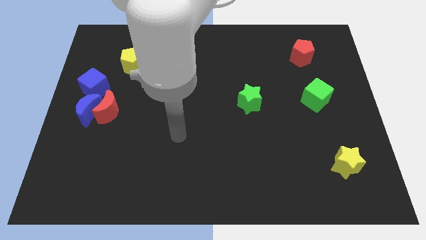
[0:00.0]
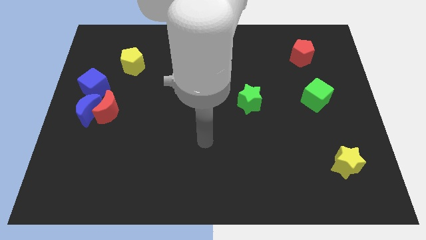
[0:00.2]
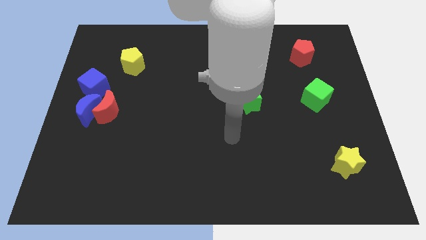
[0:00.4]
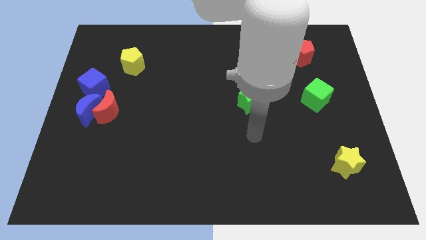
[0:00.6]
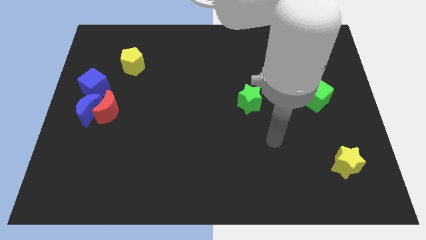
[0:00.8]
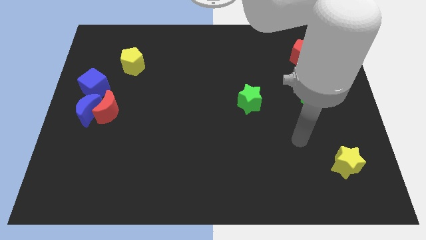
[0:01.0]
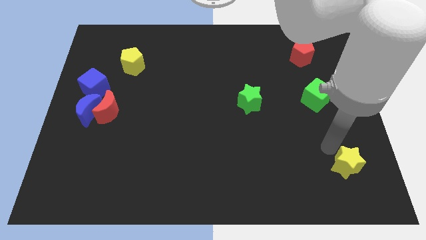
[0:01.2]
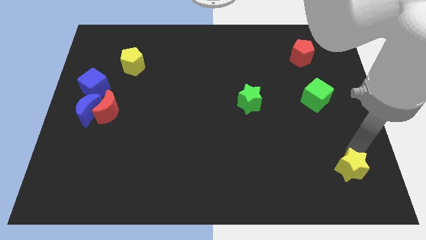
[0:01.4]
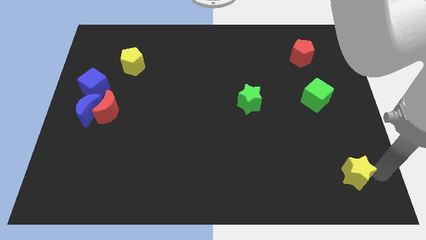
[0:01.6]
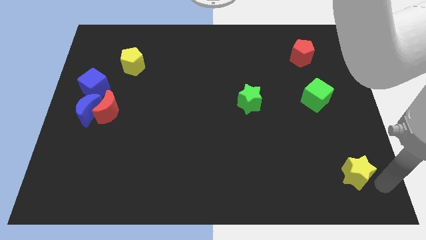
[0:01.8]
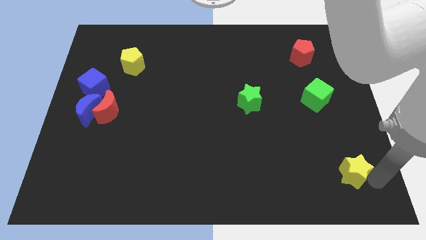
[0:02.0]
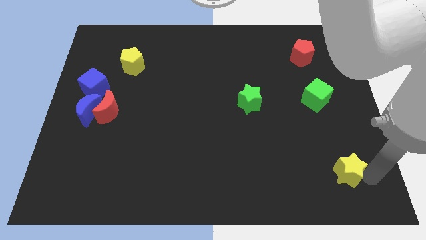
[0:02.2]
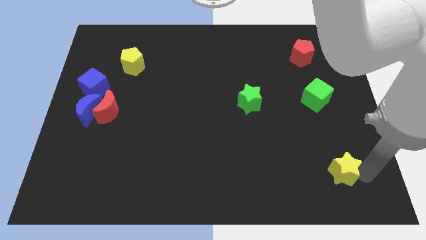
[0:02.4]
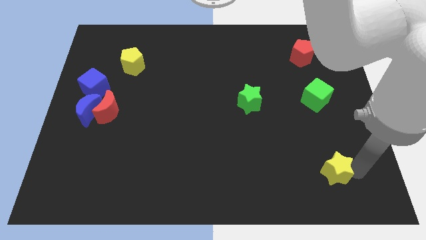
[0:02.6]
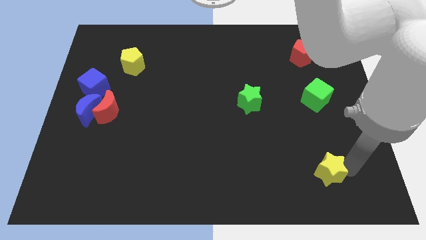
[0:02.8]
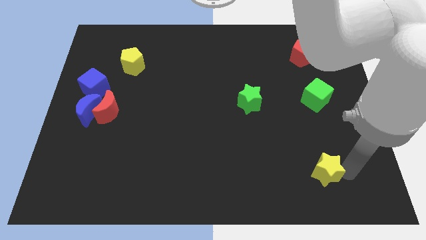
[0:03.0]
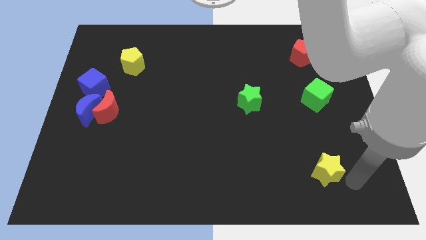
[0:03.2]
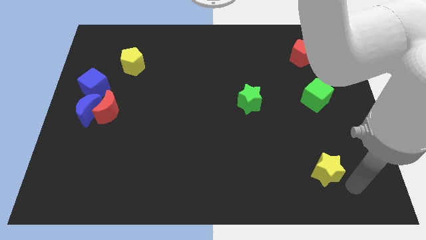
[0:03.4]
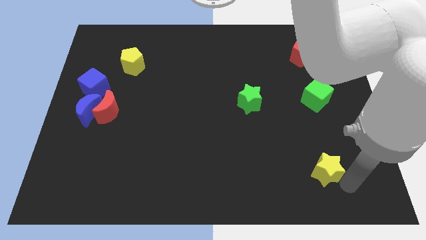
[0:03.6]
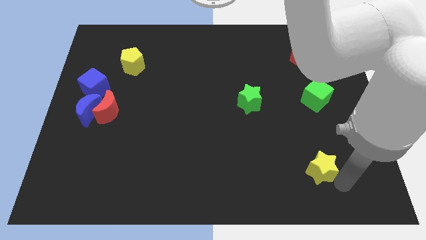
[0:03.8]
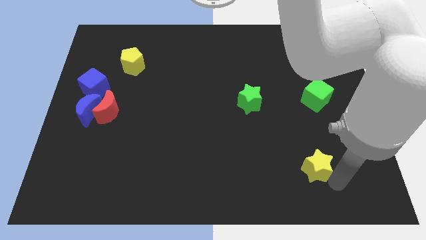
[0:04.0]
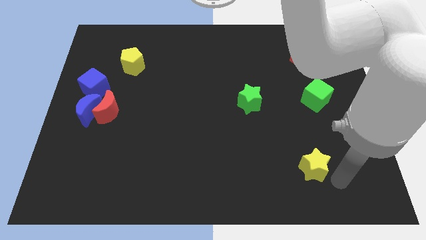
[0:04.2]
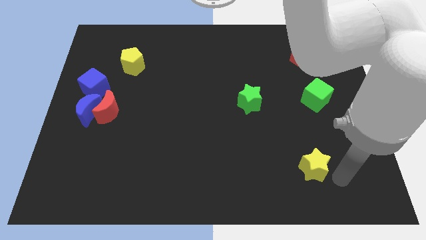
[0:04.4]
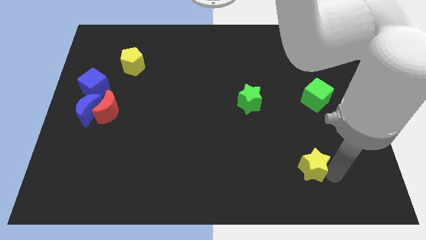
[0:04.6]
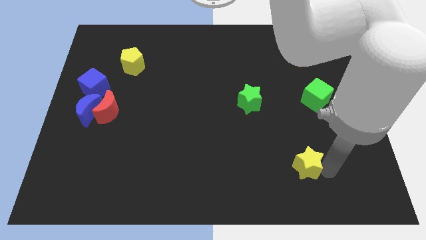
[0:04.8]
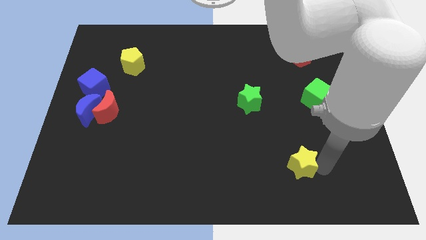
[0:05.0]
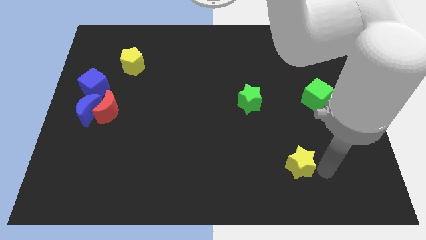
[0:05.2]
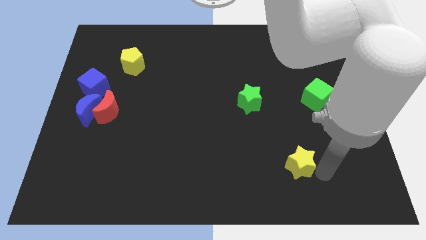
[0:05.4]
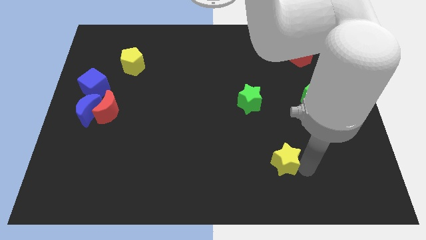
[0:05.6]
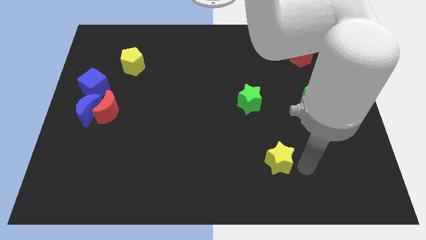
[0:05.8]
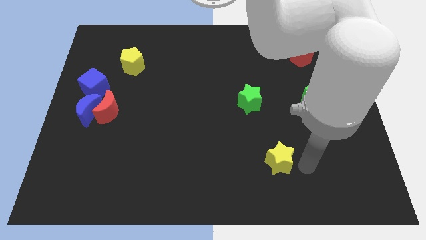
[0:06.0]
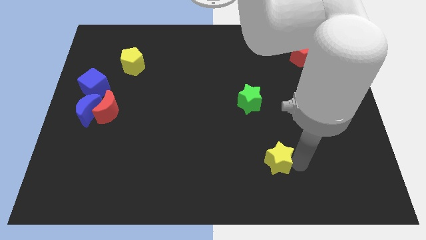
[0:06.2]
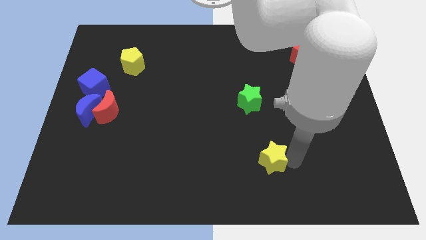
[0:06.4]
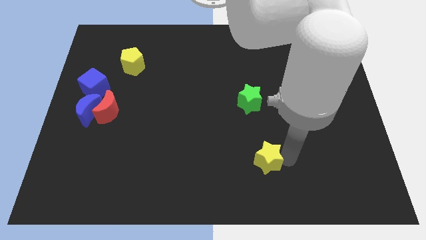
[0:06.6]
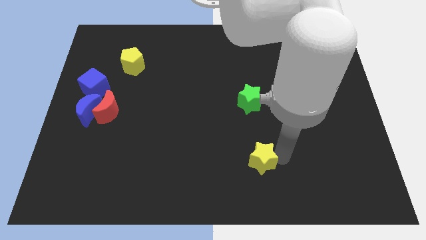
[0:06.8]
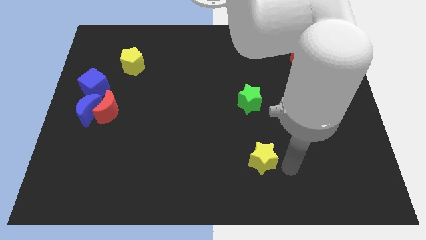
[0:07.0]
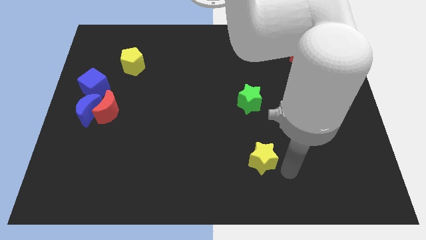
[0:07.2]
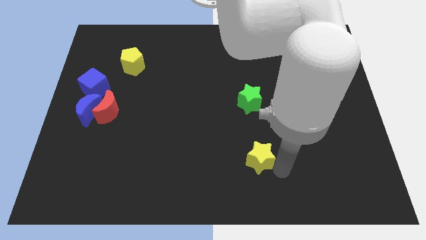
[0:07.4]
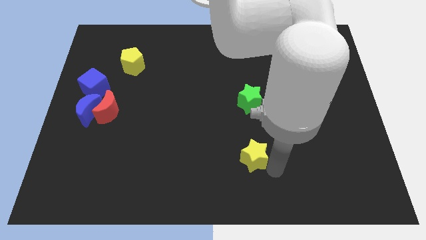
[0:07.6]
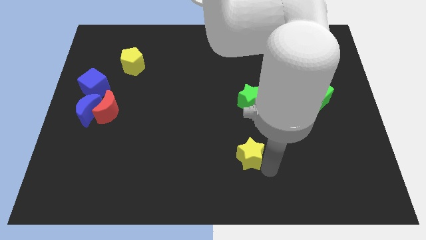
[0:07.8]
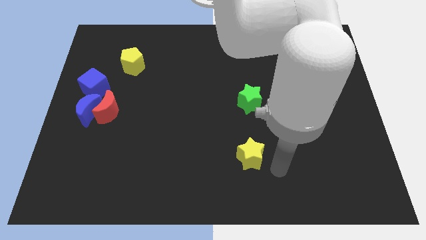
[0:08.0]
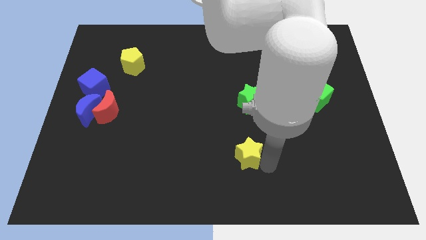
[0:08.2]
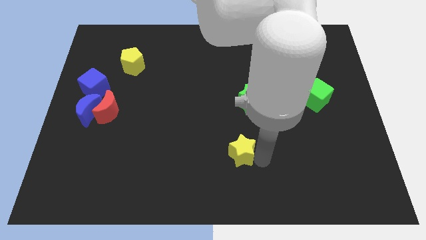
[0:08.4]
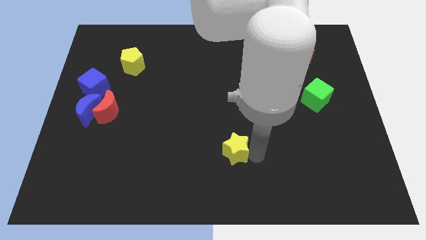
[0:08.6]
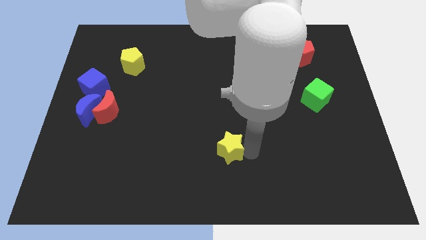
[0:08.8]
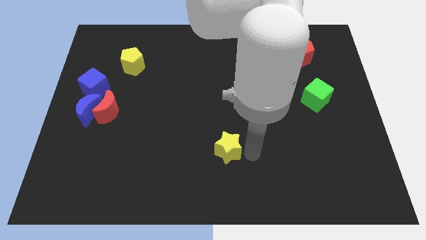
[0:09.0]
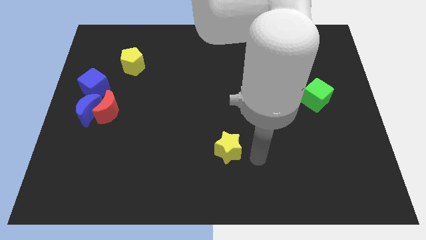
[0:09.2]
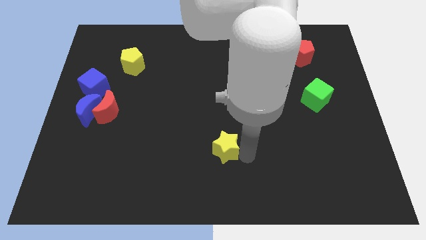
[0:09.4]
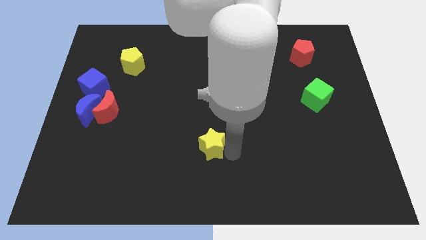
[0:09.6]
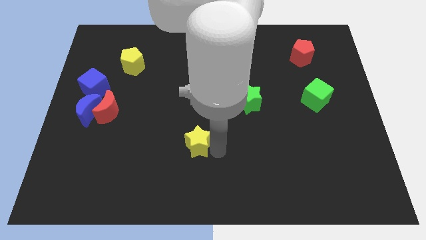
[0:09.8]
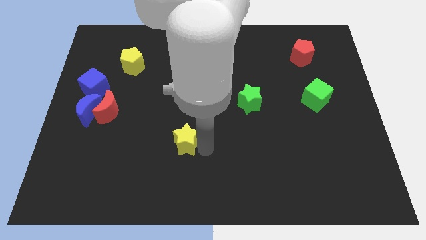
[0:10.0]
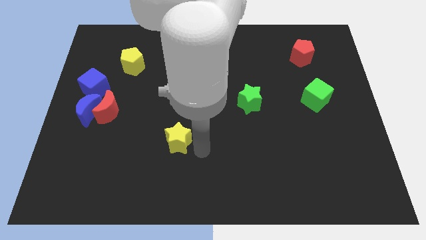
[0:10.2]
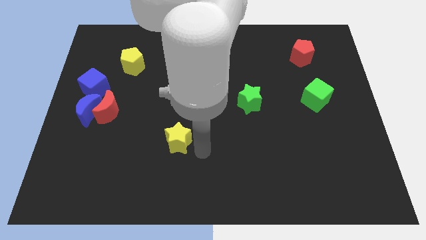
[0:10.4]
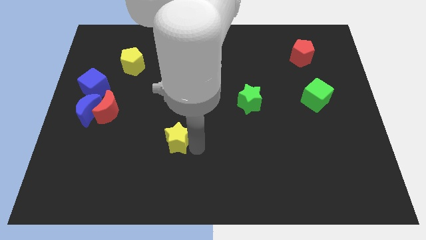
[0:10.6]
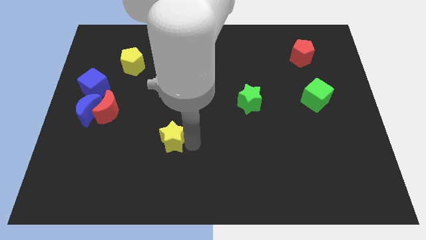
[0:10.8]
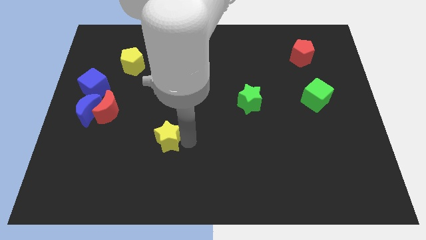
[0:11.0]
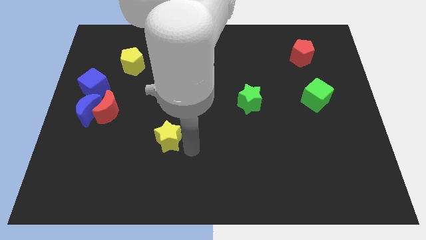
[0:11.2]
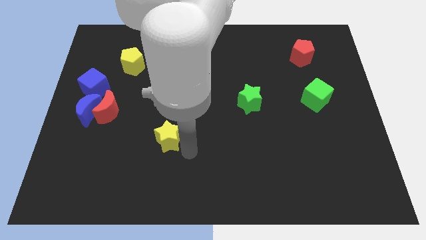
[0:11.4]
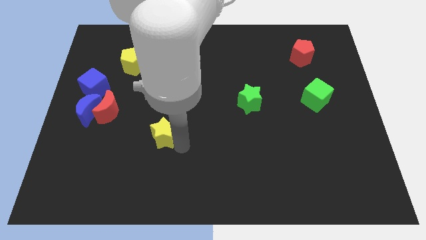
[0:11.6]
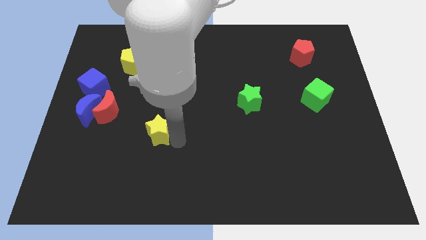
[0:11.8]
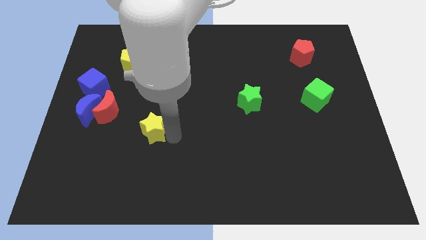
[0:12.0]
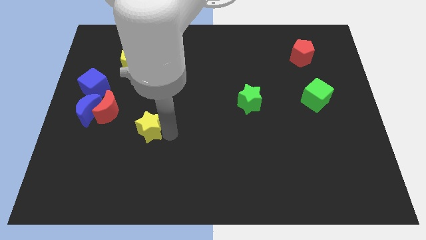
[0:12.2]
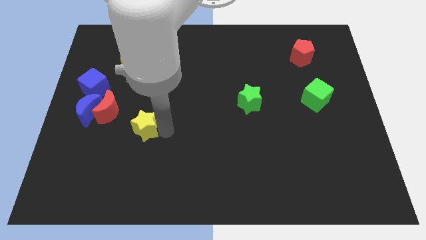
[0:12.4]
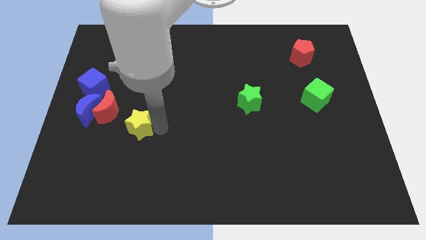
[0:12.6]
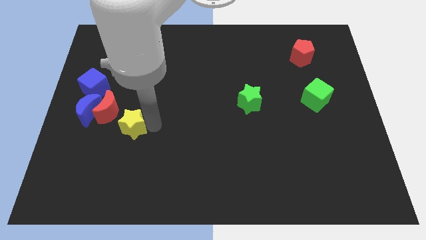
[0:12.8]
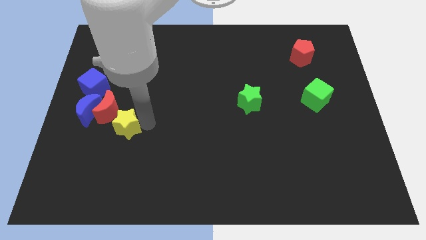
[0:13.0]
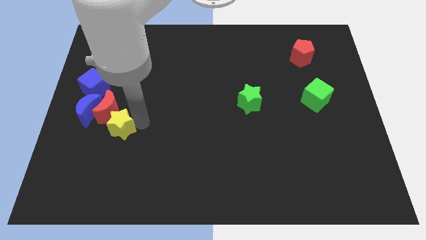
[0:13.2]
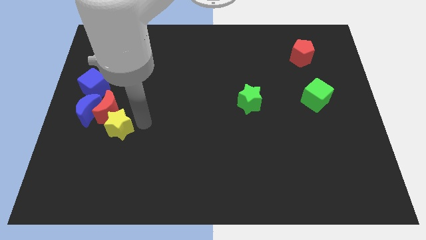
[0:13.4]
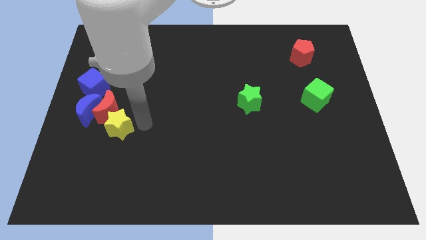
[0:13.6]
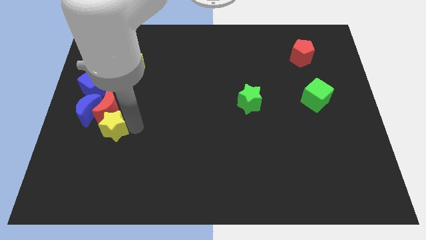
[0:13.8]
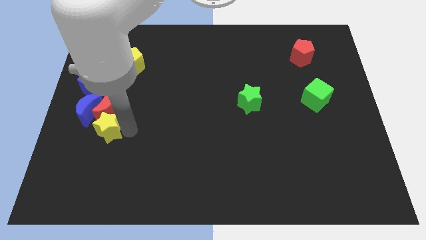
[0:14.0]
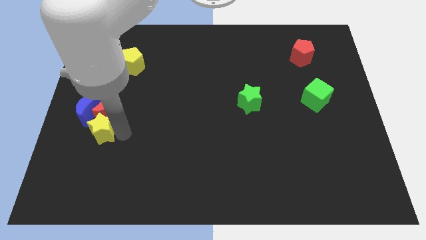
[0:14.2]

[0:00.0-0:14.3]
move the yellow star to the bottom side of the blue cube
